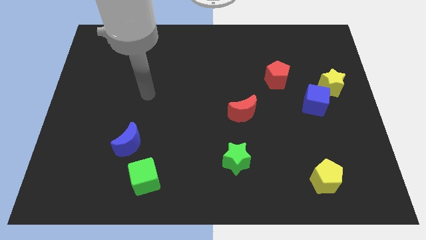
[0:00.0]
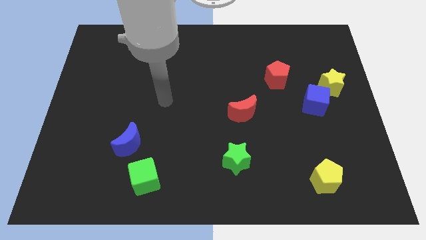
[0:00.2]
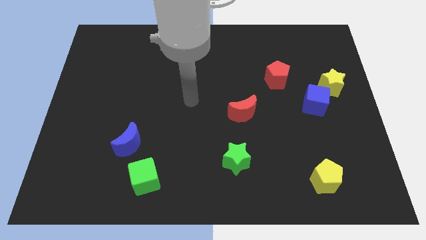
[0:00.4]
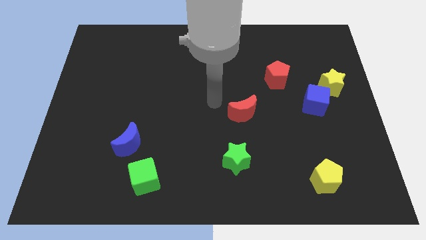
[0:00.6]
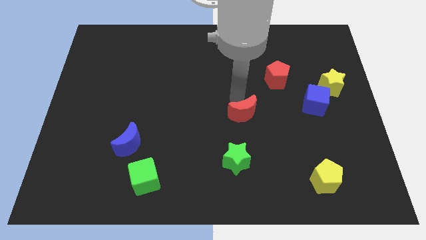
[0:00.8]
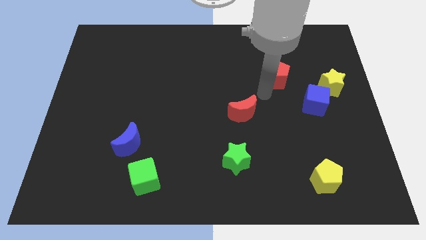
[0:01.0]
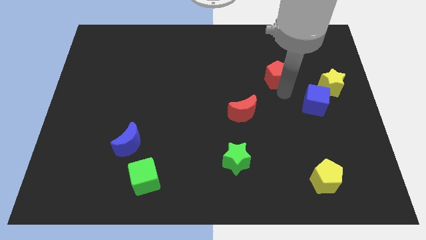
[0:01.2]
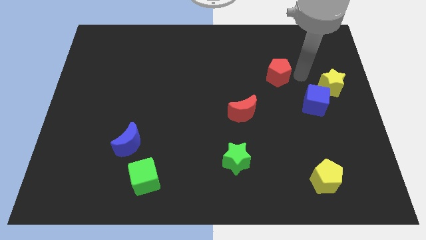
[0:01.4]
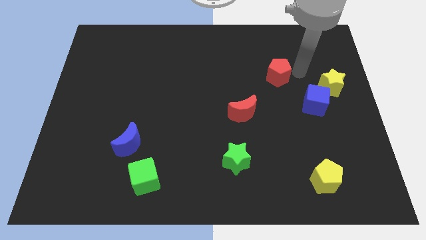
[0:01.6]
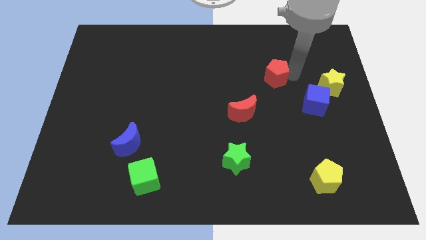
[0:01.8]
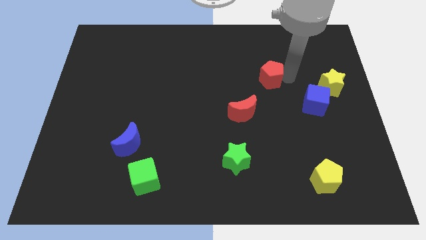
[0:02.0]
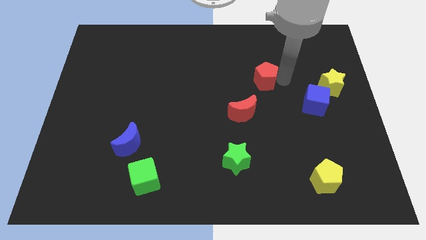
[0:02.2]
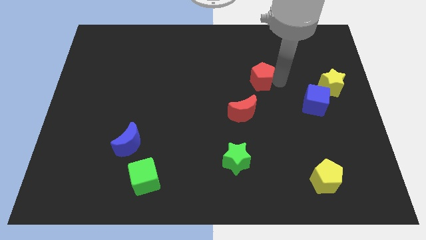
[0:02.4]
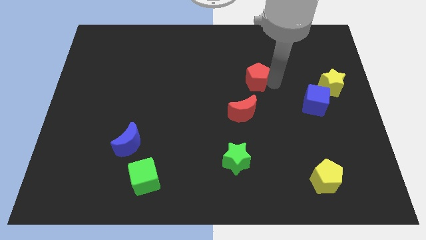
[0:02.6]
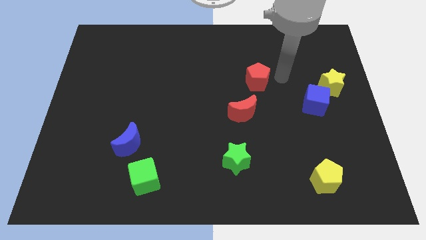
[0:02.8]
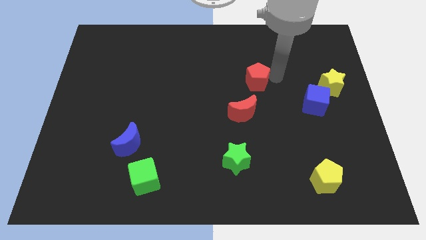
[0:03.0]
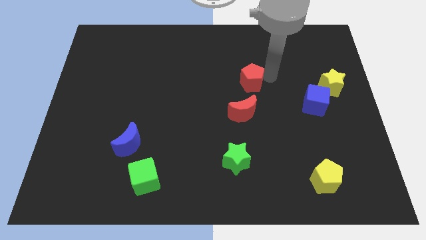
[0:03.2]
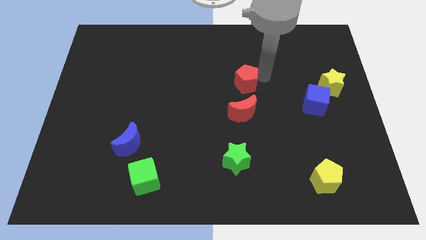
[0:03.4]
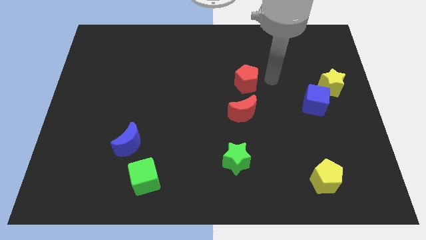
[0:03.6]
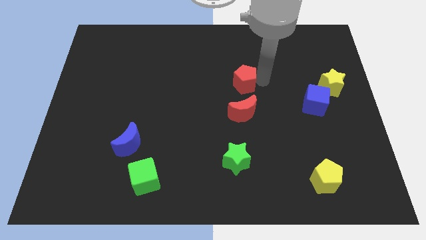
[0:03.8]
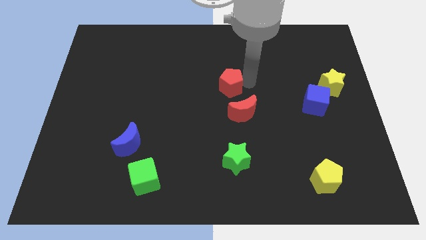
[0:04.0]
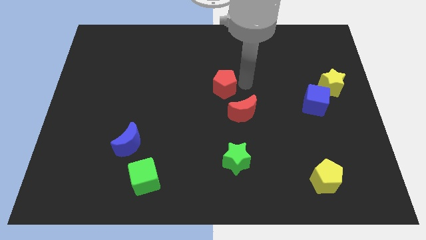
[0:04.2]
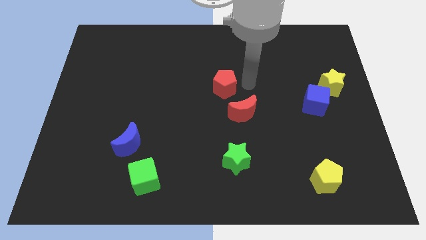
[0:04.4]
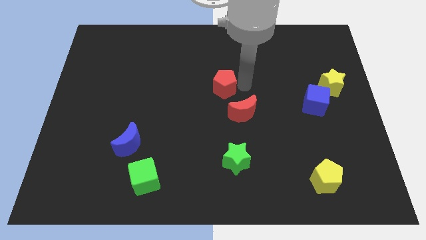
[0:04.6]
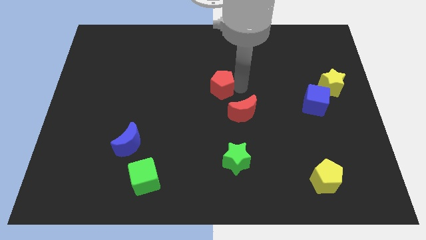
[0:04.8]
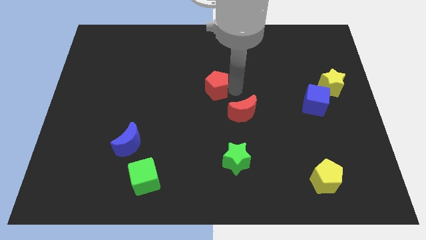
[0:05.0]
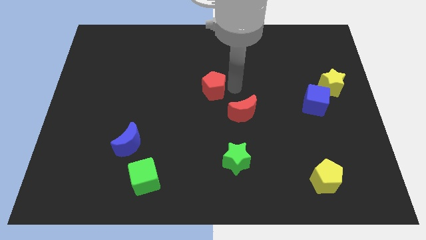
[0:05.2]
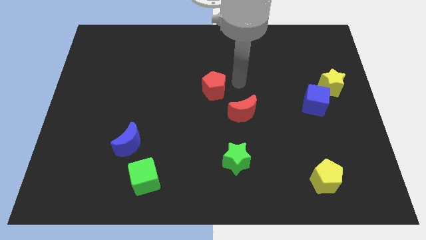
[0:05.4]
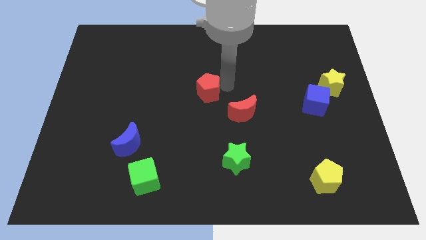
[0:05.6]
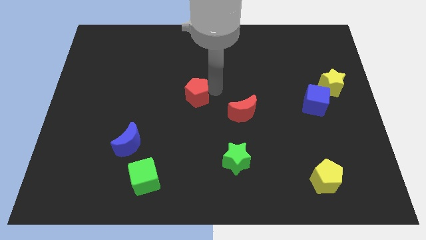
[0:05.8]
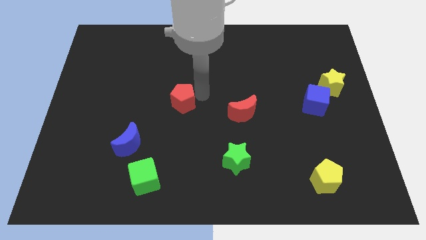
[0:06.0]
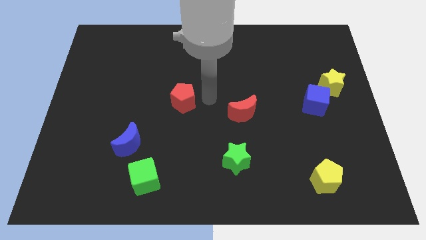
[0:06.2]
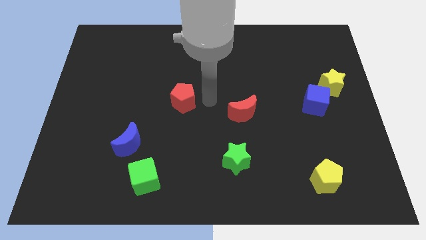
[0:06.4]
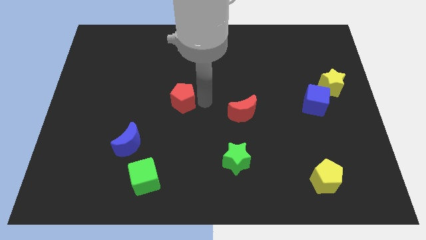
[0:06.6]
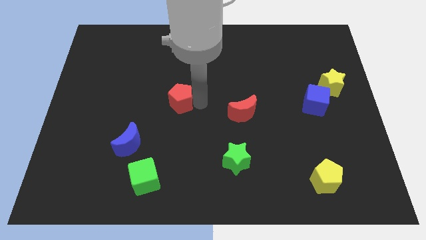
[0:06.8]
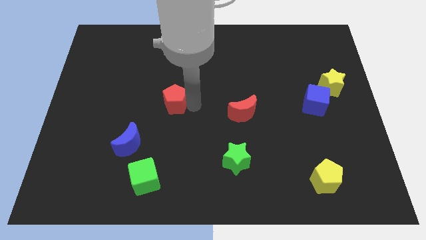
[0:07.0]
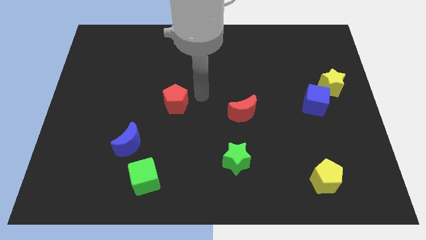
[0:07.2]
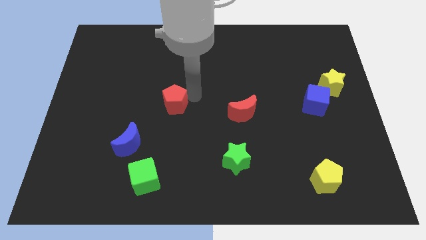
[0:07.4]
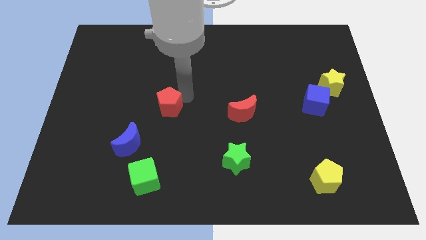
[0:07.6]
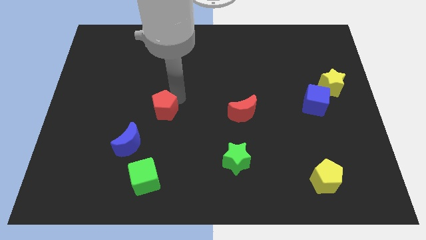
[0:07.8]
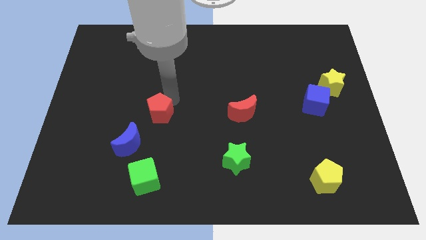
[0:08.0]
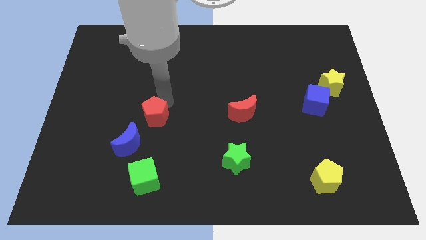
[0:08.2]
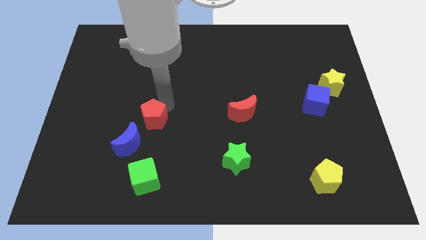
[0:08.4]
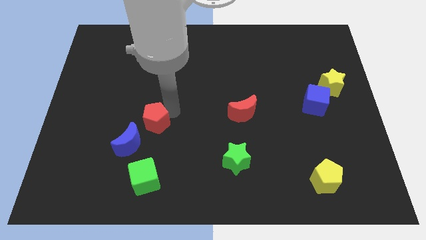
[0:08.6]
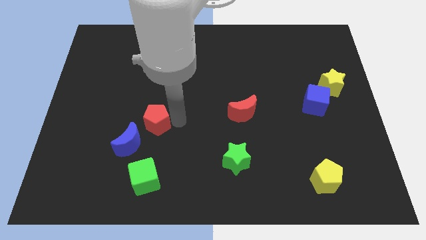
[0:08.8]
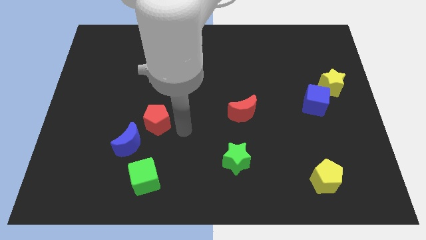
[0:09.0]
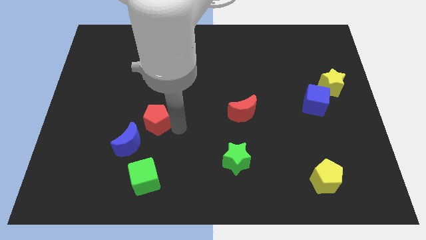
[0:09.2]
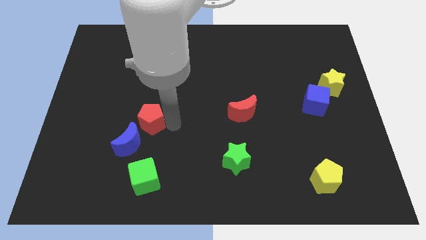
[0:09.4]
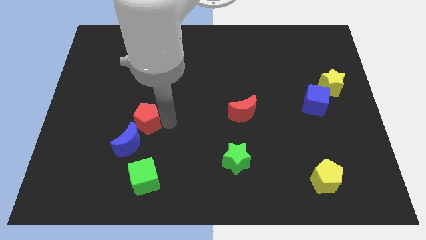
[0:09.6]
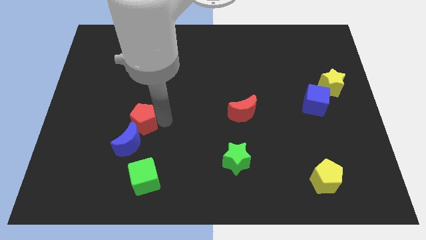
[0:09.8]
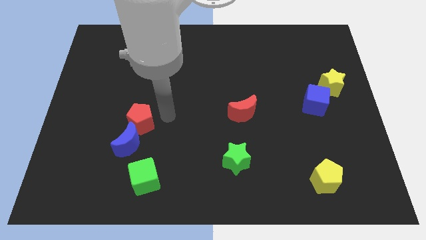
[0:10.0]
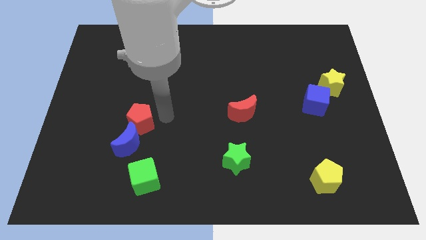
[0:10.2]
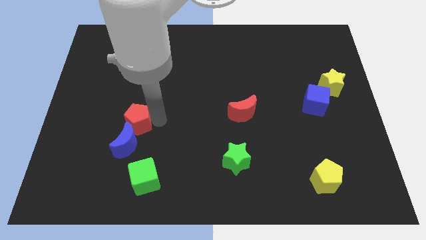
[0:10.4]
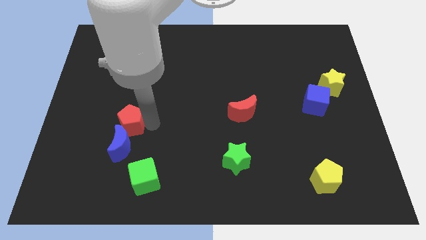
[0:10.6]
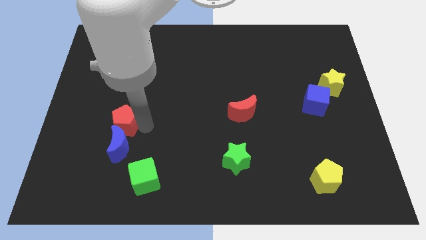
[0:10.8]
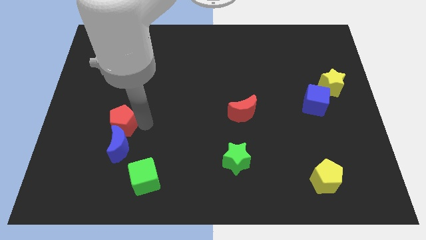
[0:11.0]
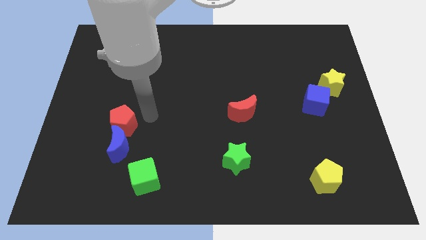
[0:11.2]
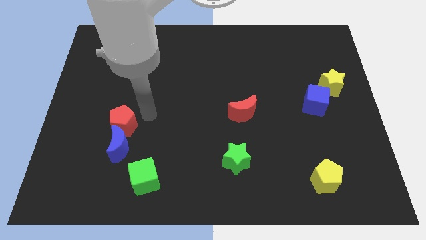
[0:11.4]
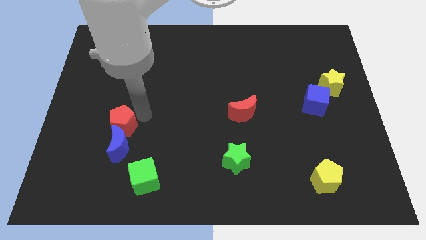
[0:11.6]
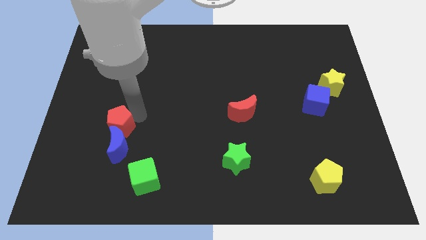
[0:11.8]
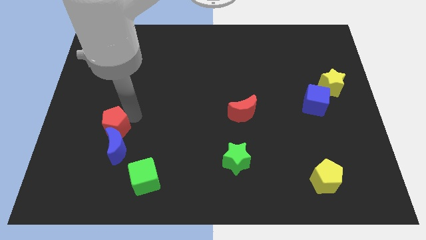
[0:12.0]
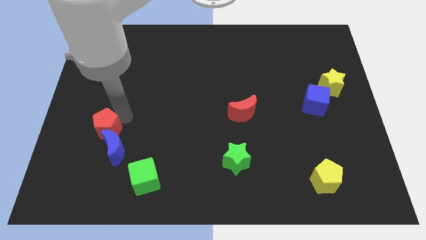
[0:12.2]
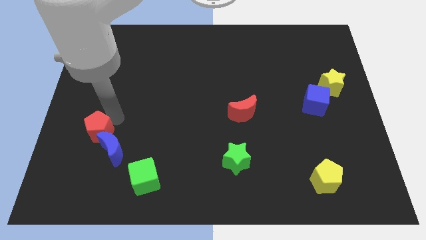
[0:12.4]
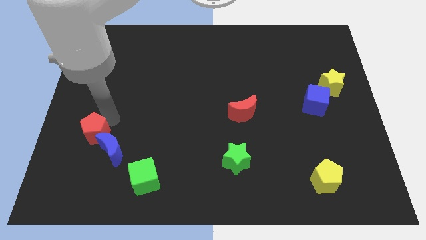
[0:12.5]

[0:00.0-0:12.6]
push the red pentagon left of the blue moon

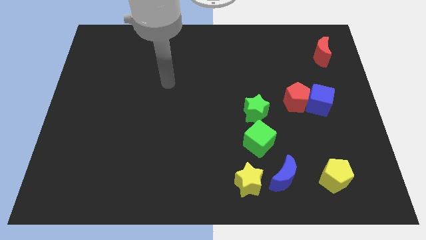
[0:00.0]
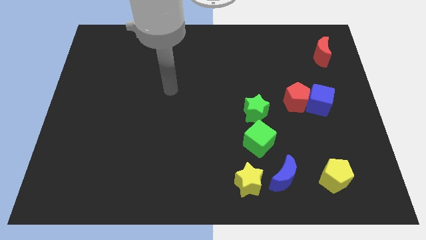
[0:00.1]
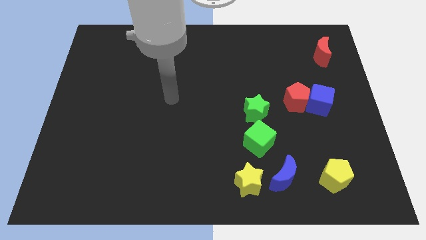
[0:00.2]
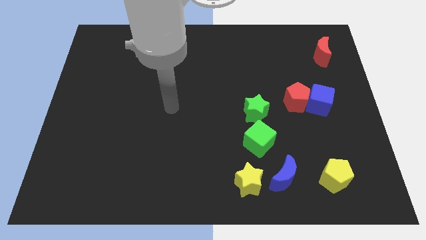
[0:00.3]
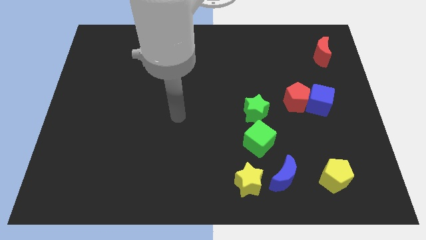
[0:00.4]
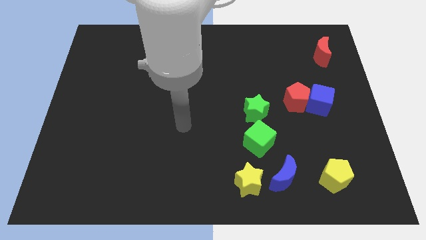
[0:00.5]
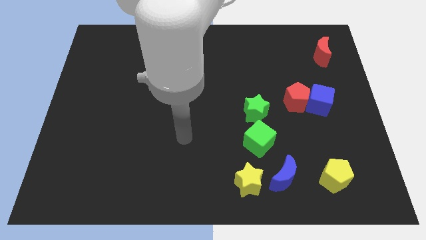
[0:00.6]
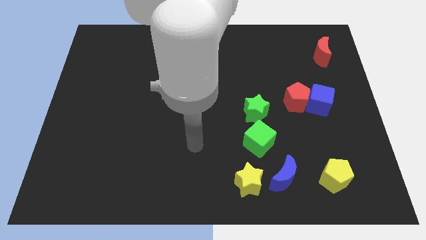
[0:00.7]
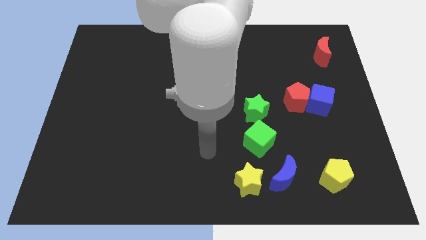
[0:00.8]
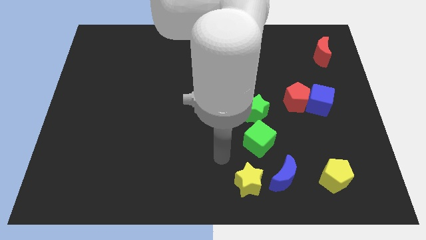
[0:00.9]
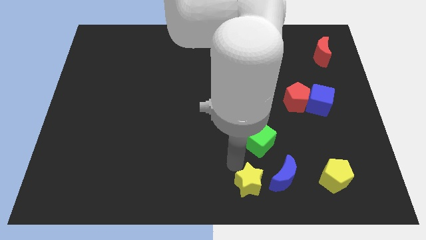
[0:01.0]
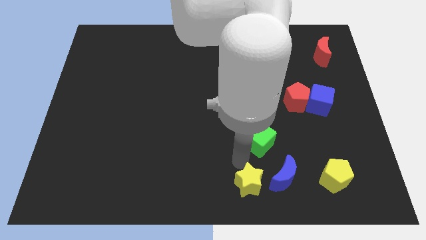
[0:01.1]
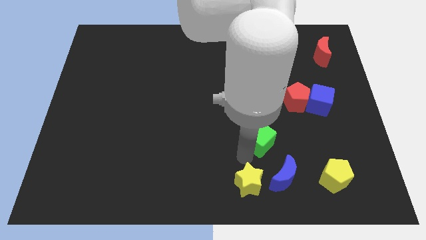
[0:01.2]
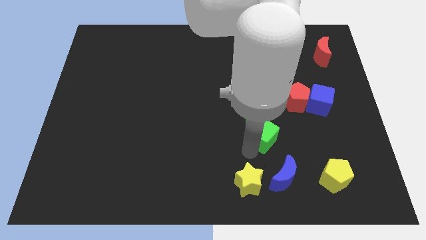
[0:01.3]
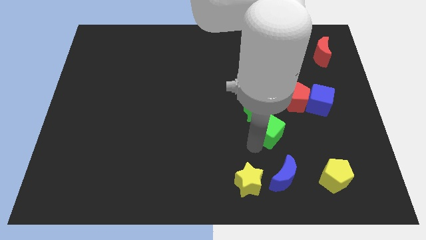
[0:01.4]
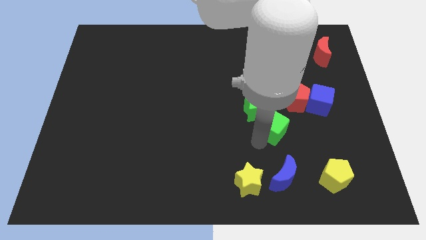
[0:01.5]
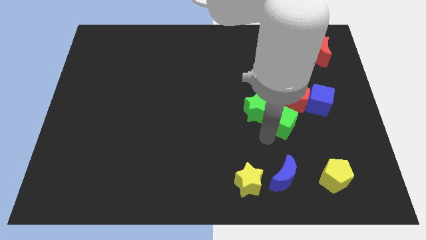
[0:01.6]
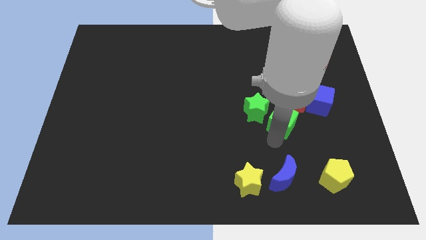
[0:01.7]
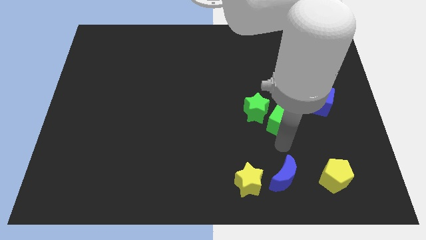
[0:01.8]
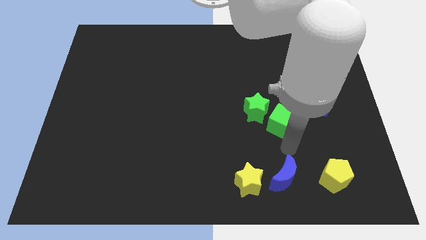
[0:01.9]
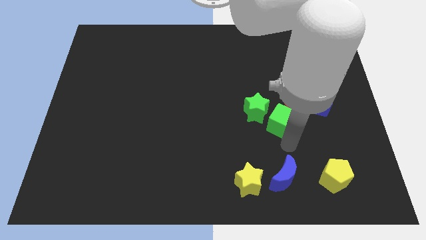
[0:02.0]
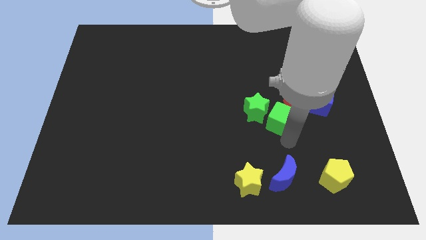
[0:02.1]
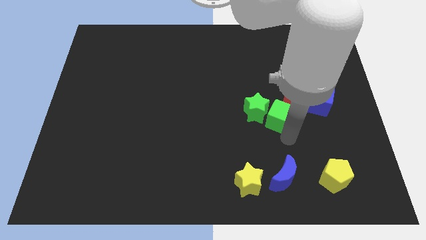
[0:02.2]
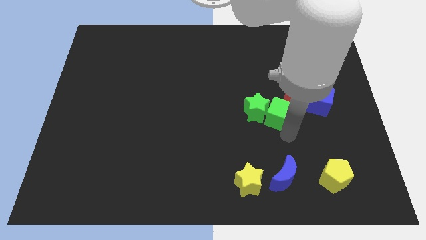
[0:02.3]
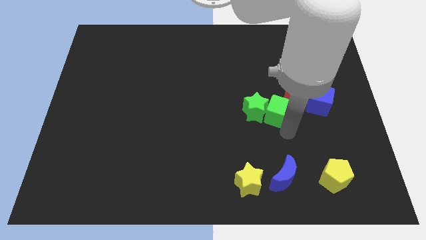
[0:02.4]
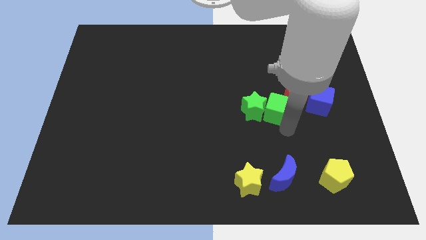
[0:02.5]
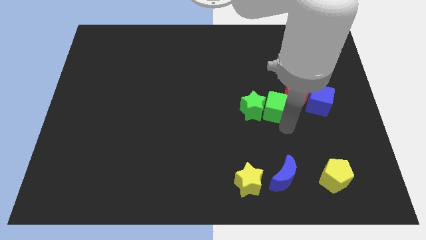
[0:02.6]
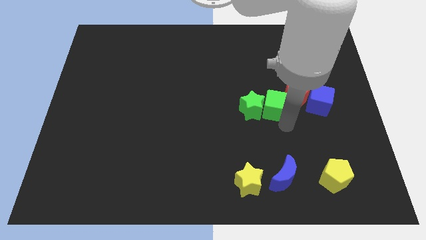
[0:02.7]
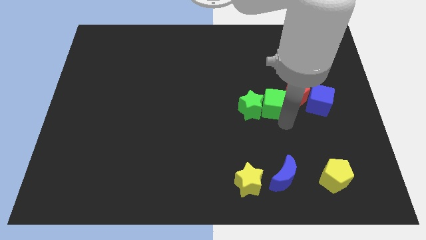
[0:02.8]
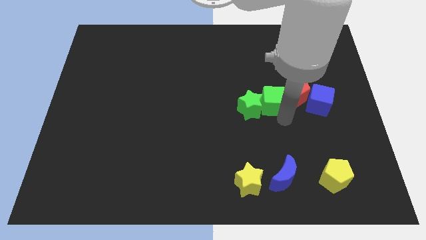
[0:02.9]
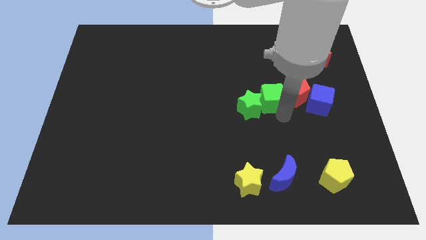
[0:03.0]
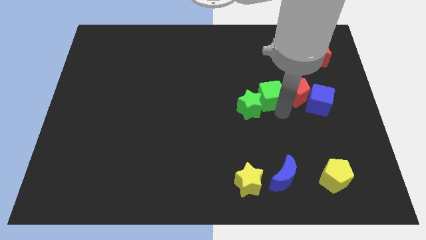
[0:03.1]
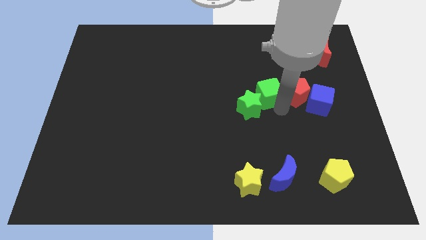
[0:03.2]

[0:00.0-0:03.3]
put the green cube to the top of the green star
